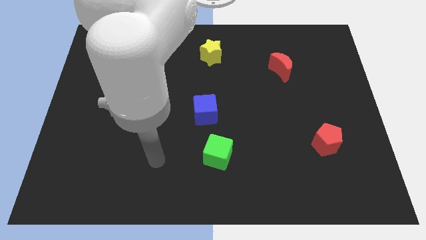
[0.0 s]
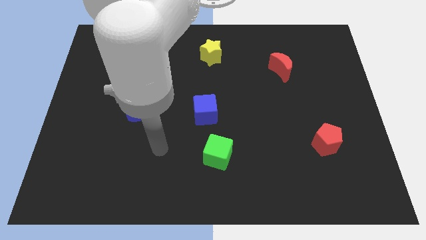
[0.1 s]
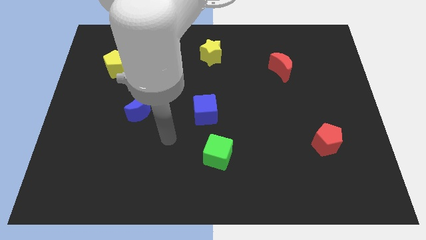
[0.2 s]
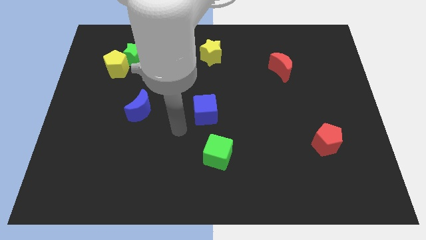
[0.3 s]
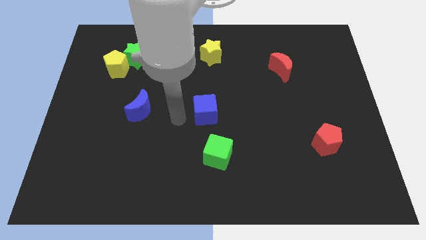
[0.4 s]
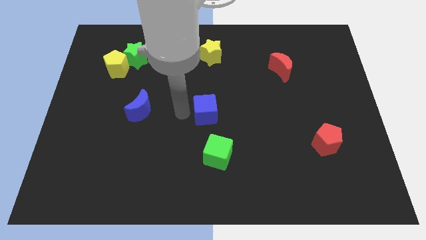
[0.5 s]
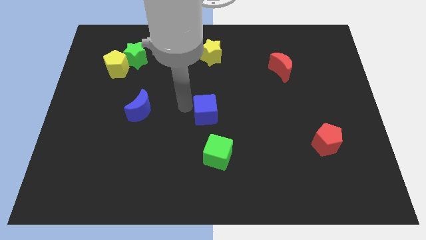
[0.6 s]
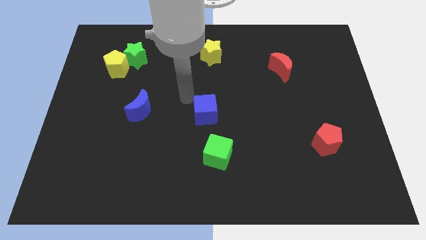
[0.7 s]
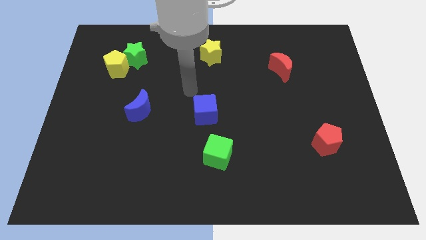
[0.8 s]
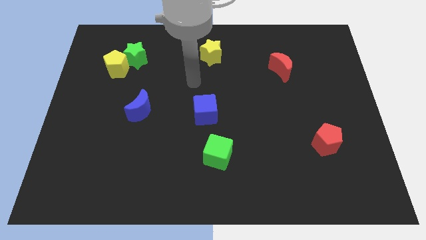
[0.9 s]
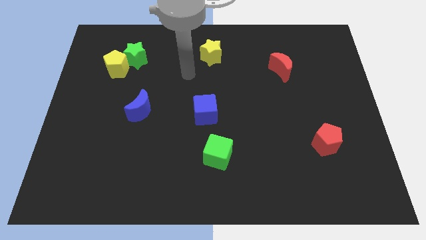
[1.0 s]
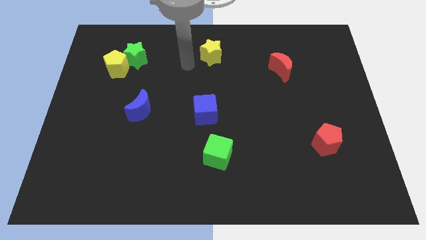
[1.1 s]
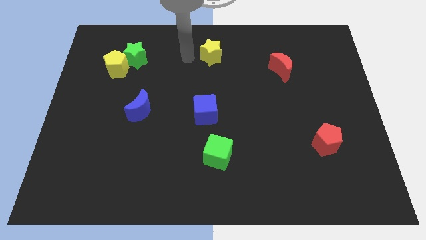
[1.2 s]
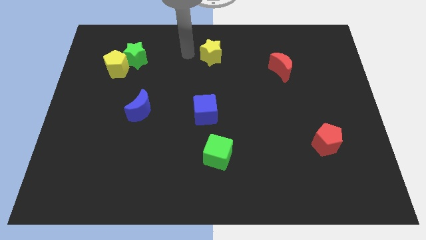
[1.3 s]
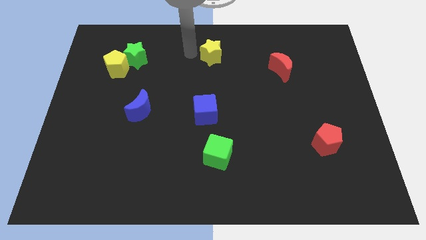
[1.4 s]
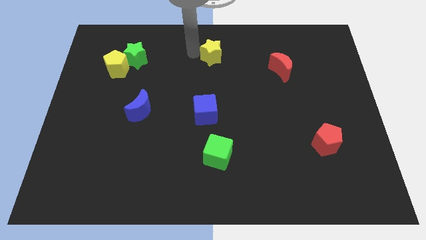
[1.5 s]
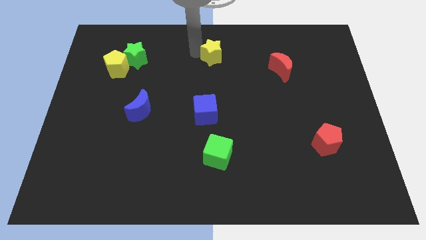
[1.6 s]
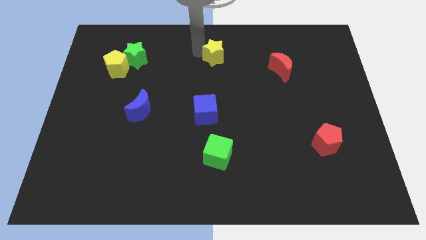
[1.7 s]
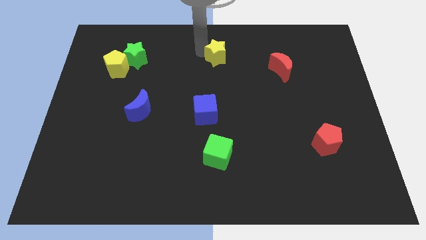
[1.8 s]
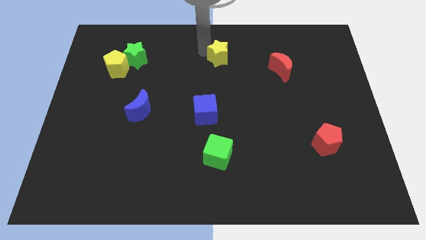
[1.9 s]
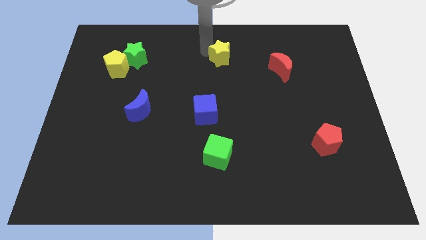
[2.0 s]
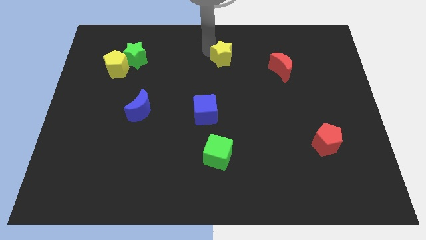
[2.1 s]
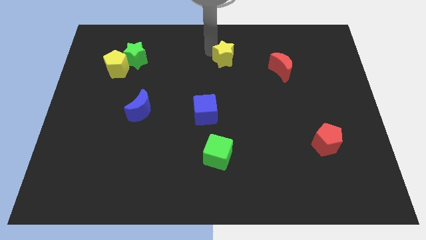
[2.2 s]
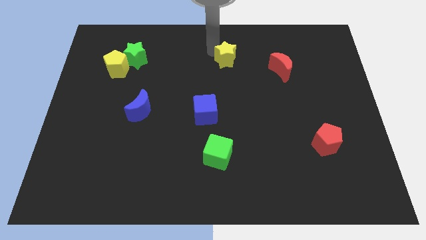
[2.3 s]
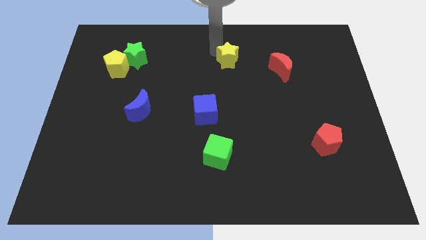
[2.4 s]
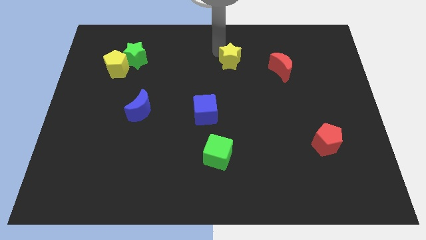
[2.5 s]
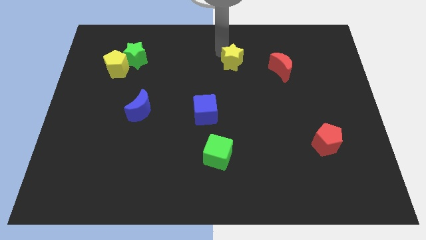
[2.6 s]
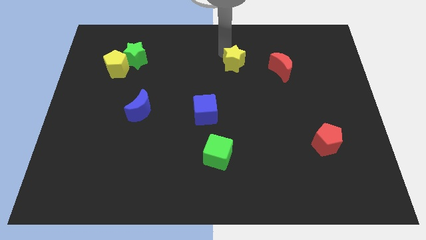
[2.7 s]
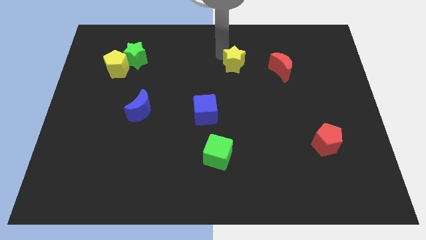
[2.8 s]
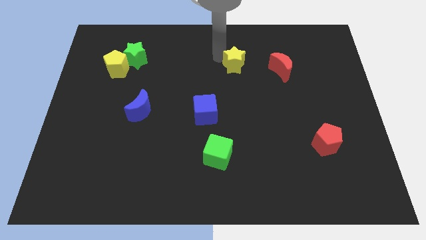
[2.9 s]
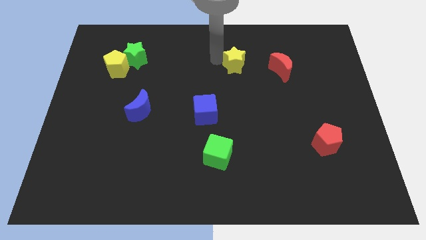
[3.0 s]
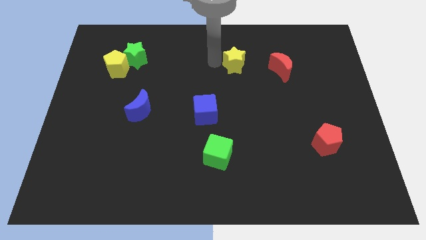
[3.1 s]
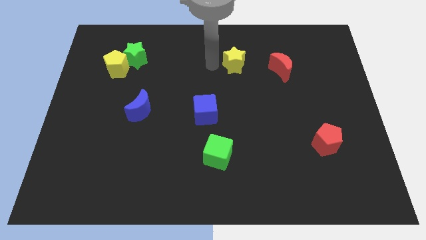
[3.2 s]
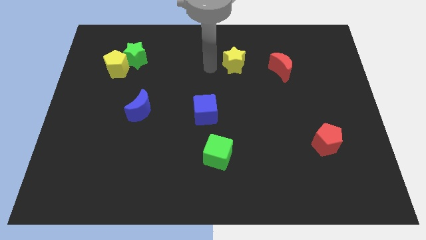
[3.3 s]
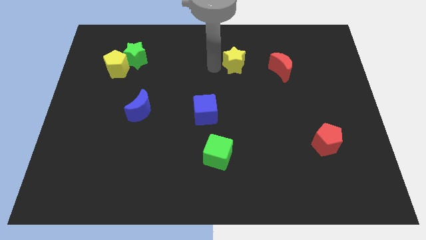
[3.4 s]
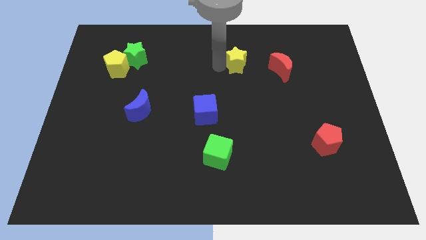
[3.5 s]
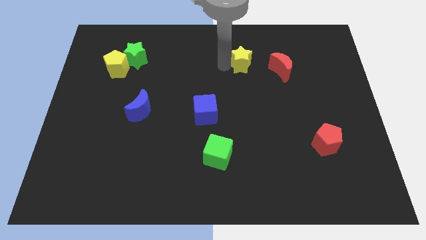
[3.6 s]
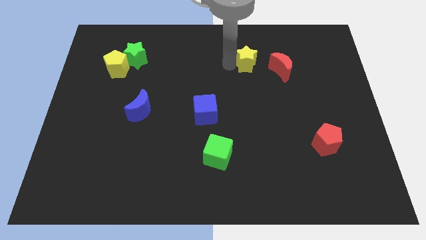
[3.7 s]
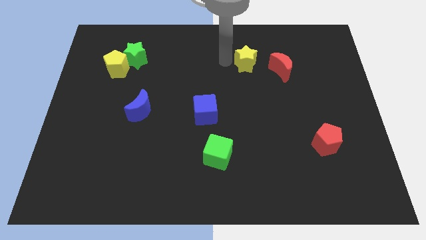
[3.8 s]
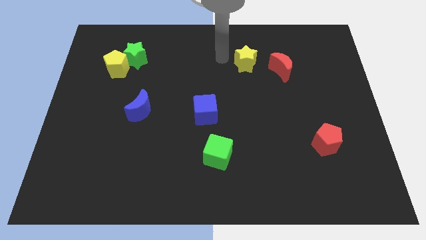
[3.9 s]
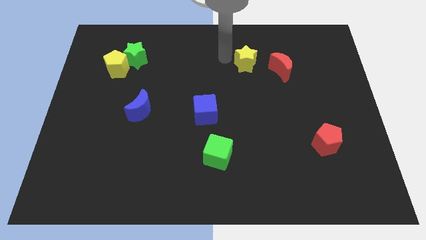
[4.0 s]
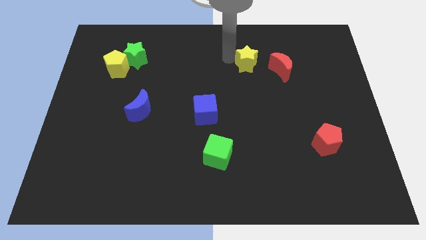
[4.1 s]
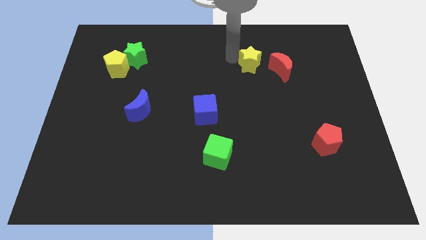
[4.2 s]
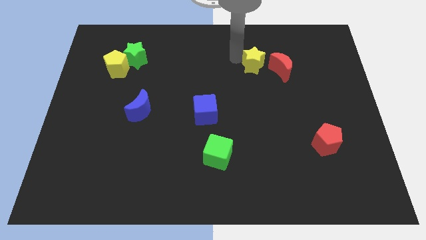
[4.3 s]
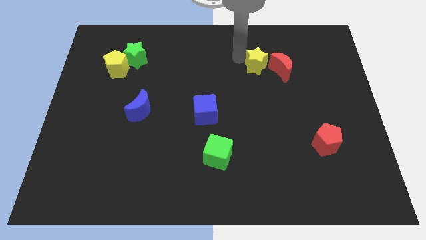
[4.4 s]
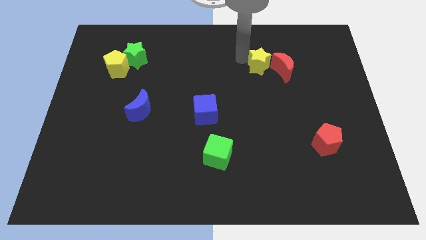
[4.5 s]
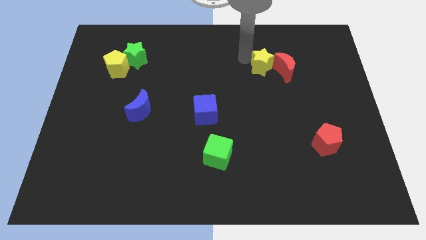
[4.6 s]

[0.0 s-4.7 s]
slide the yellow star next to the red moon

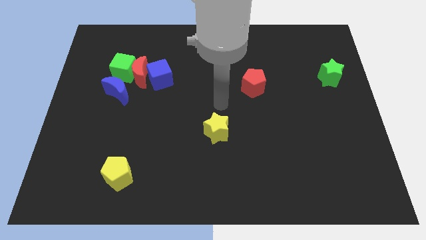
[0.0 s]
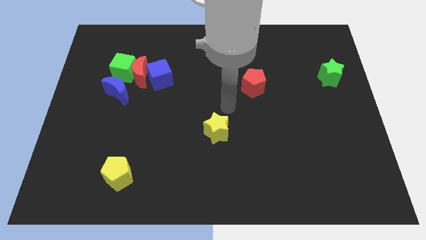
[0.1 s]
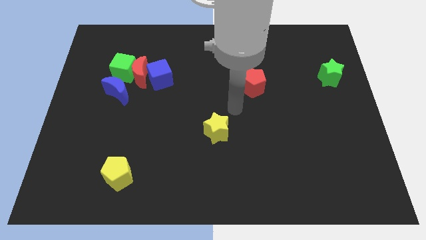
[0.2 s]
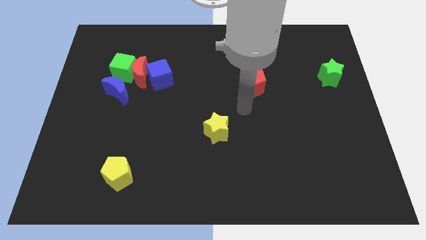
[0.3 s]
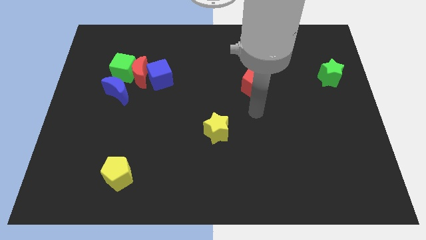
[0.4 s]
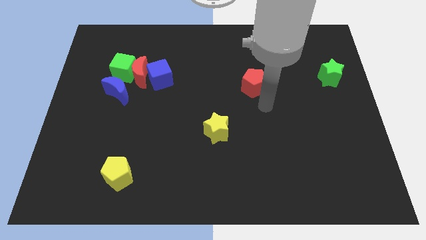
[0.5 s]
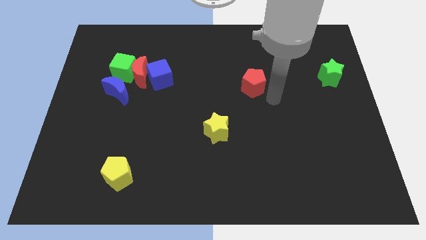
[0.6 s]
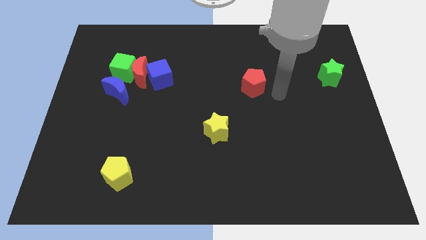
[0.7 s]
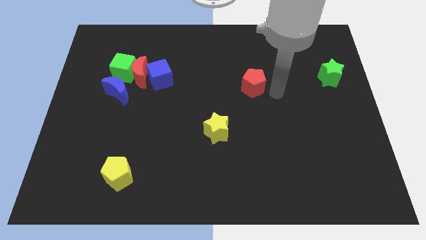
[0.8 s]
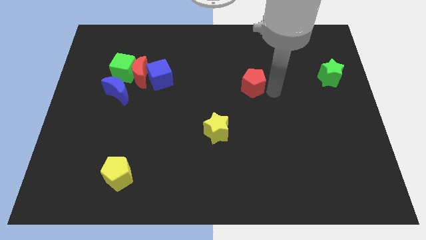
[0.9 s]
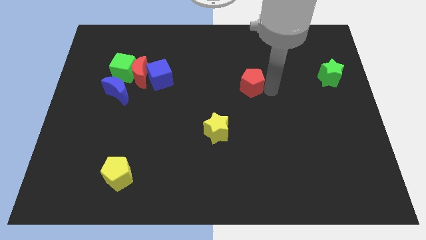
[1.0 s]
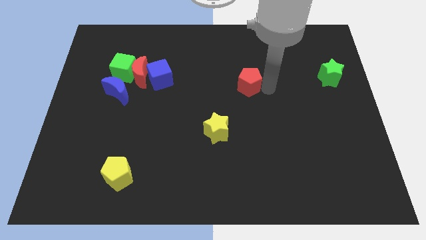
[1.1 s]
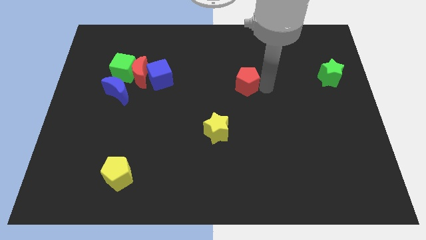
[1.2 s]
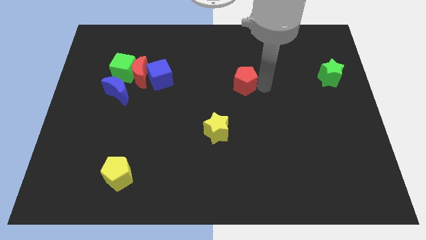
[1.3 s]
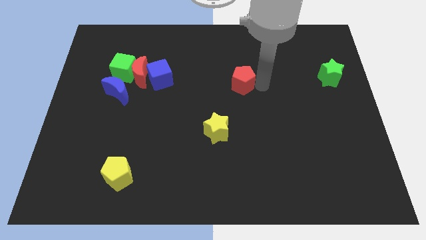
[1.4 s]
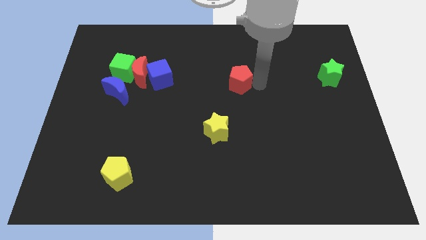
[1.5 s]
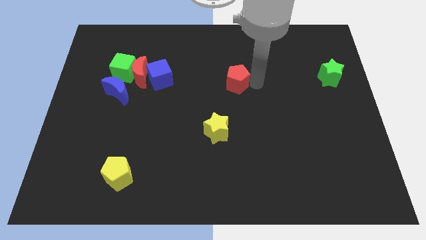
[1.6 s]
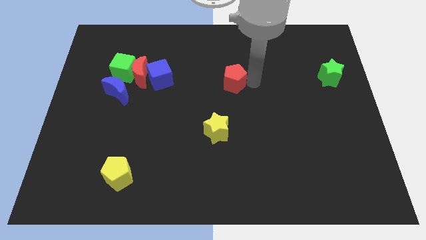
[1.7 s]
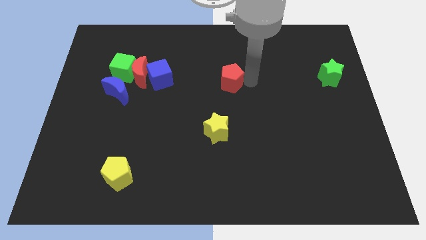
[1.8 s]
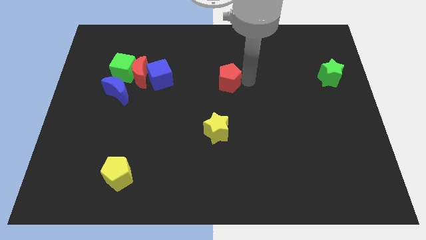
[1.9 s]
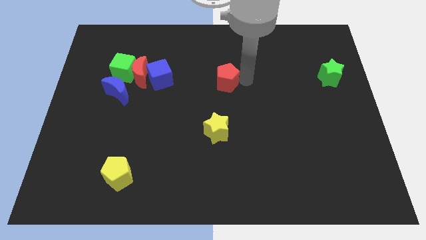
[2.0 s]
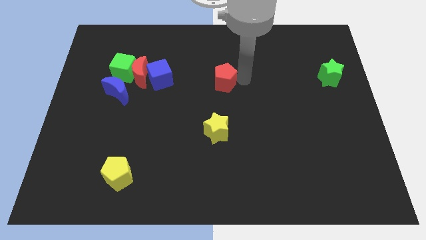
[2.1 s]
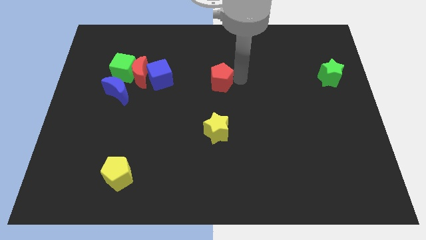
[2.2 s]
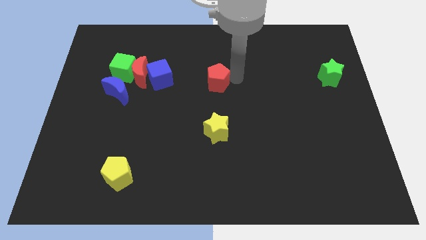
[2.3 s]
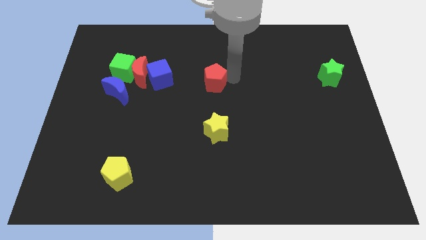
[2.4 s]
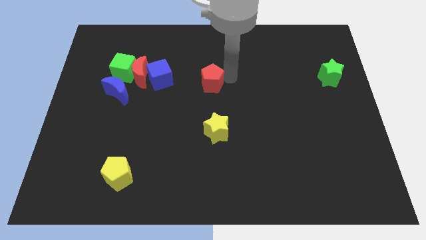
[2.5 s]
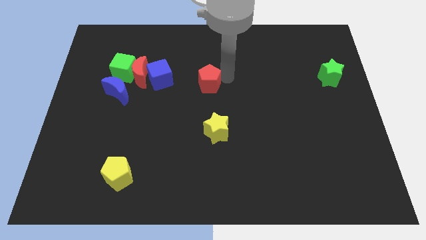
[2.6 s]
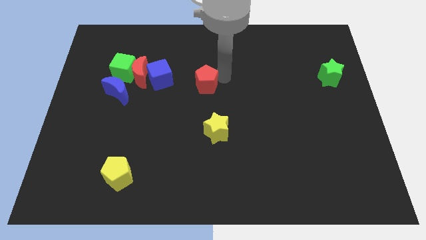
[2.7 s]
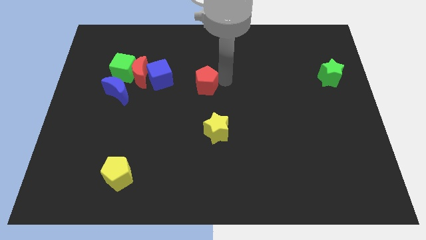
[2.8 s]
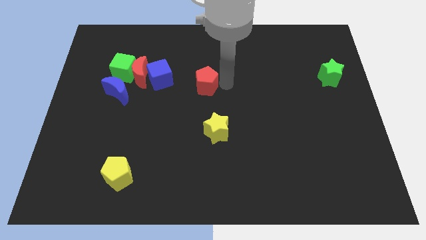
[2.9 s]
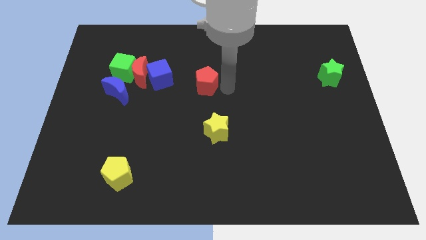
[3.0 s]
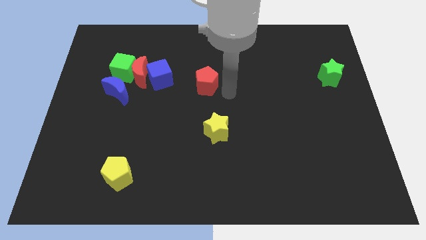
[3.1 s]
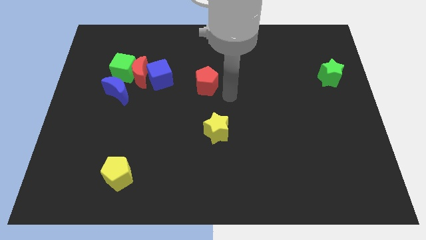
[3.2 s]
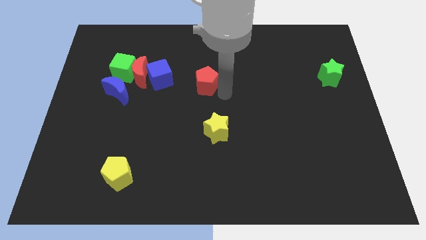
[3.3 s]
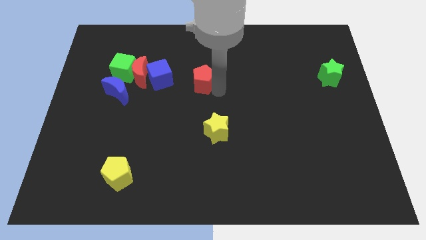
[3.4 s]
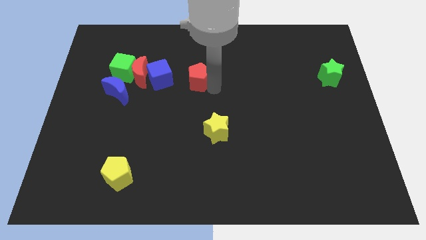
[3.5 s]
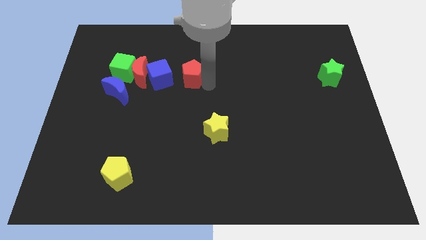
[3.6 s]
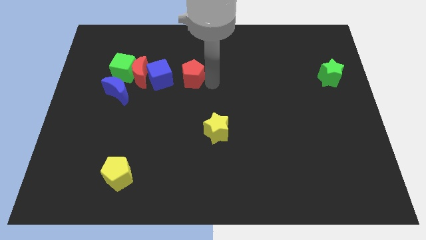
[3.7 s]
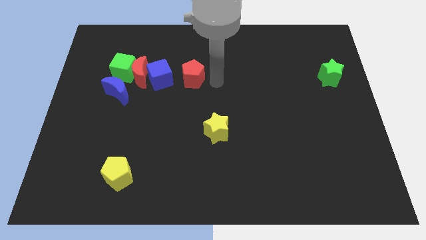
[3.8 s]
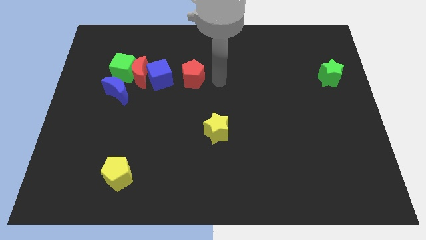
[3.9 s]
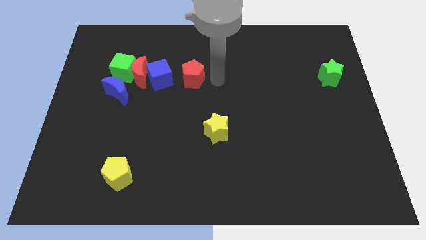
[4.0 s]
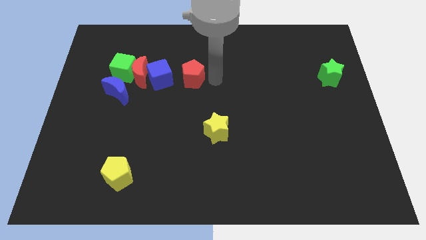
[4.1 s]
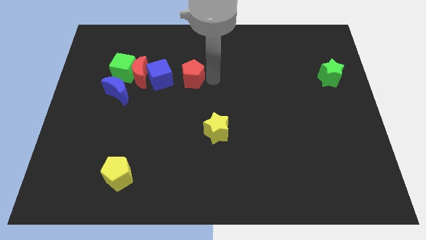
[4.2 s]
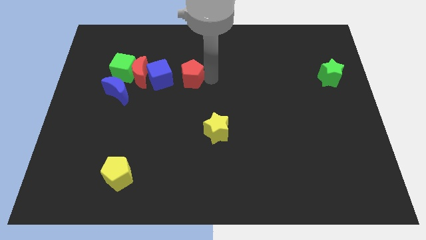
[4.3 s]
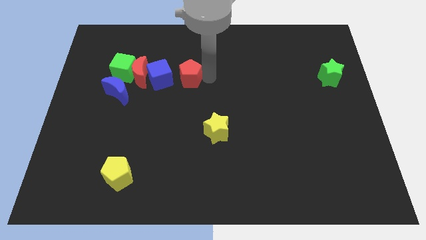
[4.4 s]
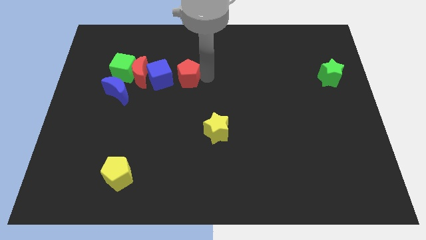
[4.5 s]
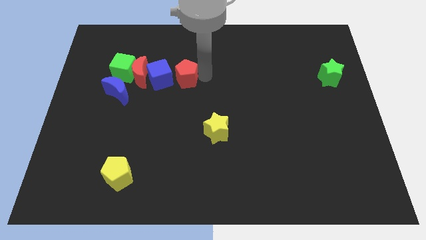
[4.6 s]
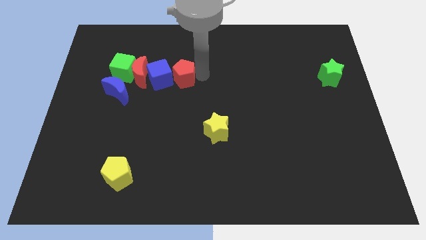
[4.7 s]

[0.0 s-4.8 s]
slide the red pentagon towards the blue cube
